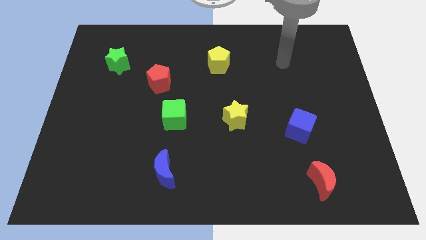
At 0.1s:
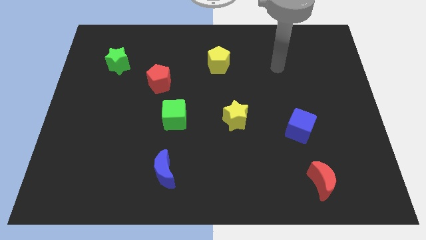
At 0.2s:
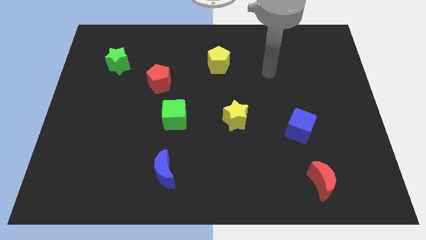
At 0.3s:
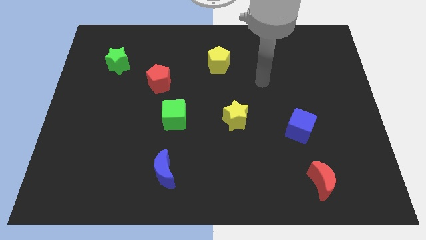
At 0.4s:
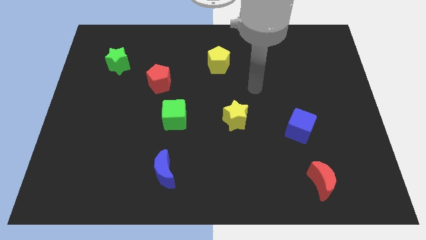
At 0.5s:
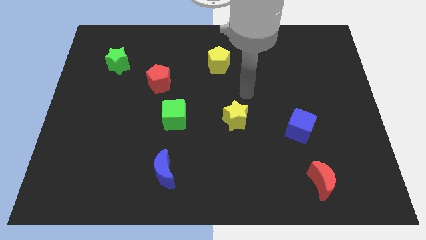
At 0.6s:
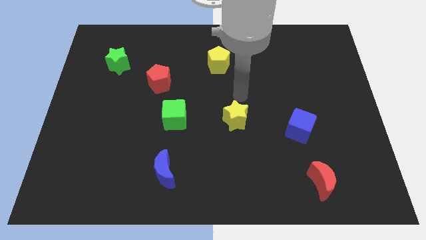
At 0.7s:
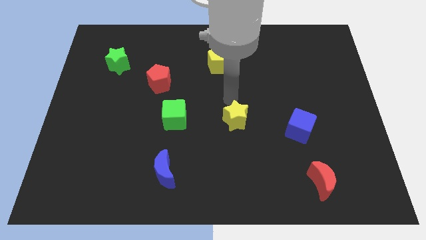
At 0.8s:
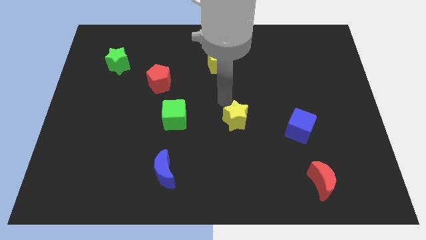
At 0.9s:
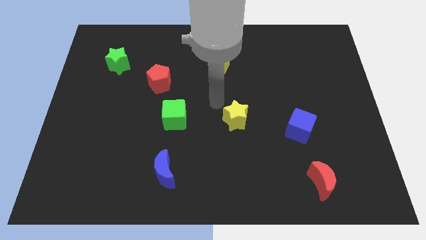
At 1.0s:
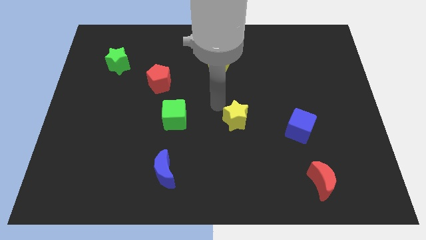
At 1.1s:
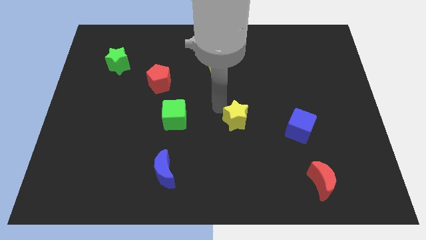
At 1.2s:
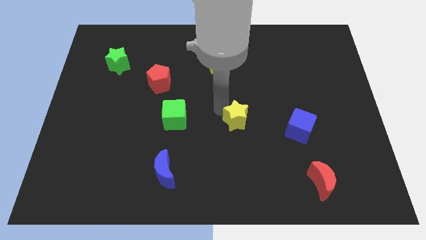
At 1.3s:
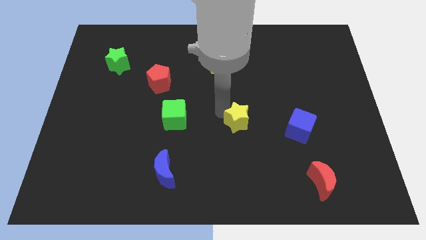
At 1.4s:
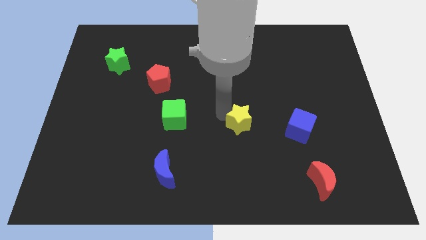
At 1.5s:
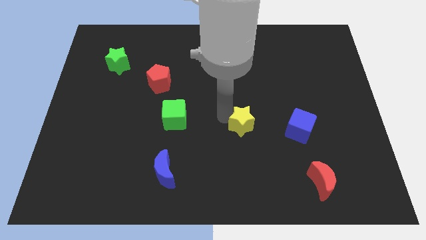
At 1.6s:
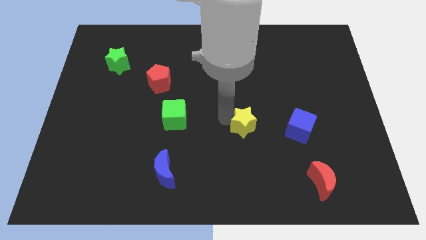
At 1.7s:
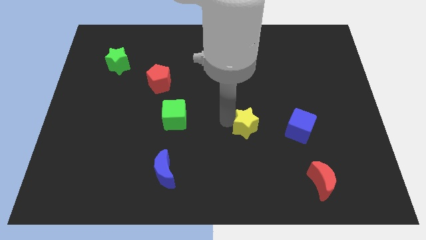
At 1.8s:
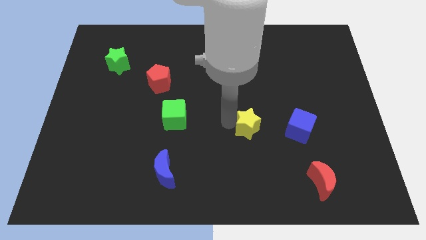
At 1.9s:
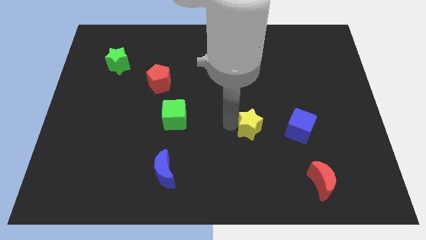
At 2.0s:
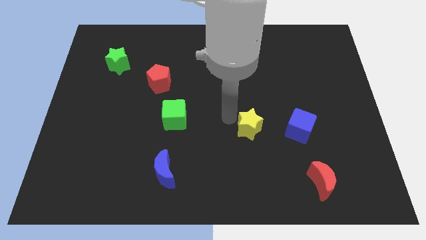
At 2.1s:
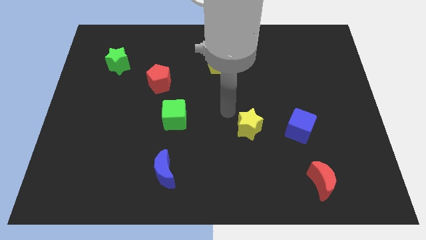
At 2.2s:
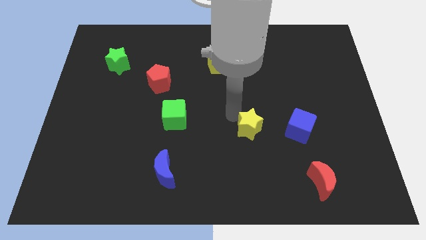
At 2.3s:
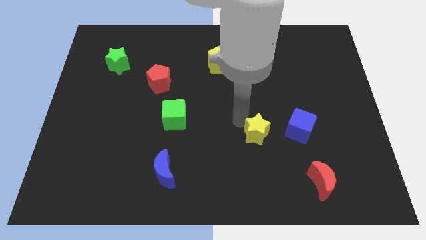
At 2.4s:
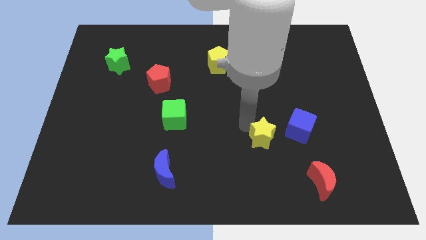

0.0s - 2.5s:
move the yellow star down and then to the right slightly

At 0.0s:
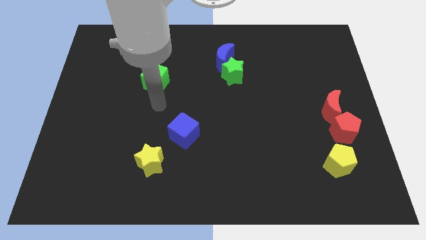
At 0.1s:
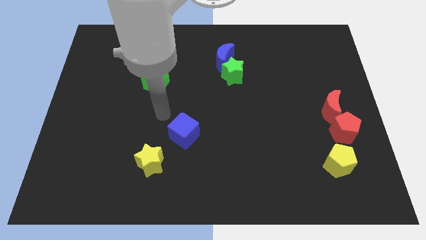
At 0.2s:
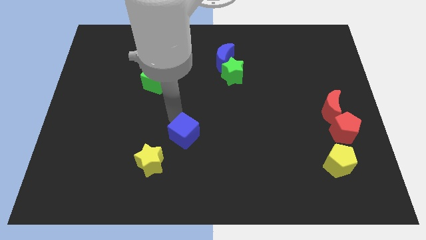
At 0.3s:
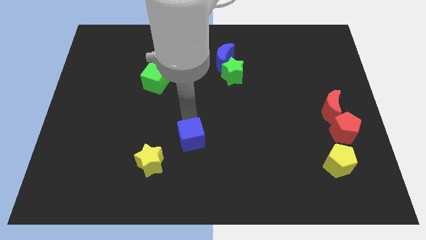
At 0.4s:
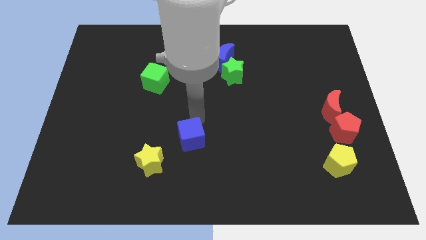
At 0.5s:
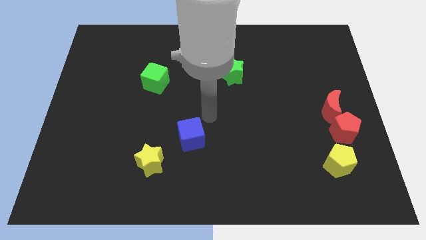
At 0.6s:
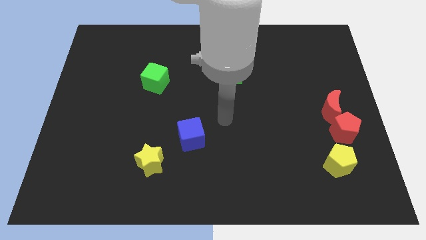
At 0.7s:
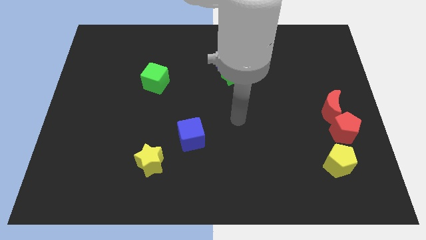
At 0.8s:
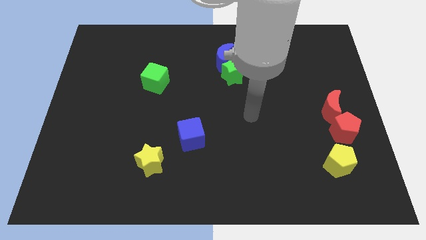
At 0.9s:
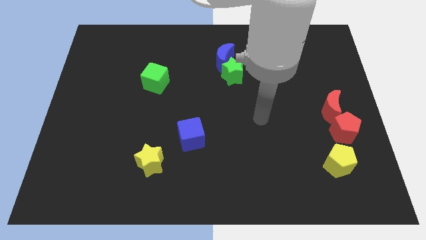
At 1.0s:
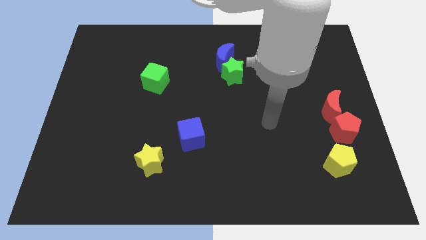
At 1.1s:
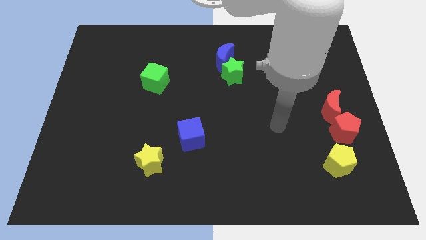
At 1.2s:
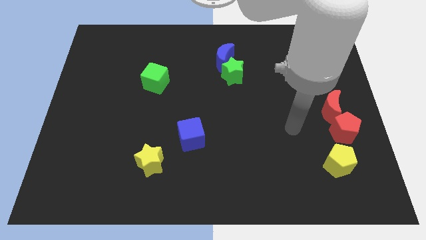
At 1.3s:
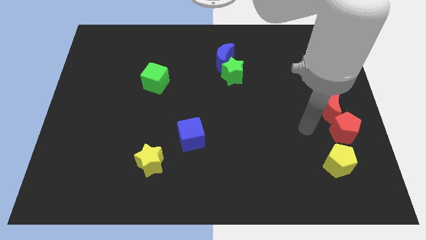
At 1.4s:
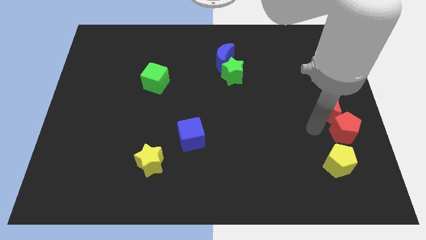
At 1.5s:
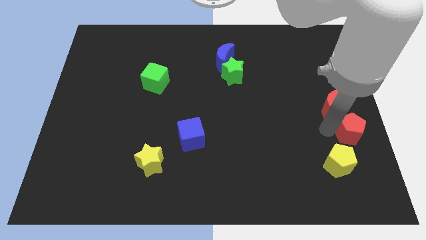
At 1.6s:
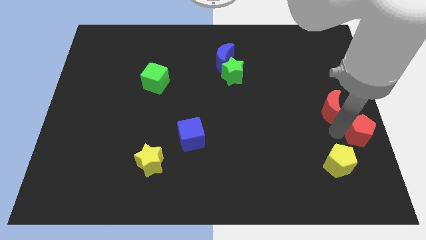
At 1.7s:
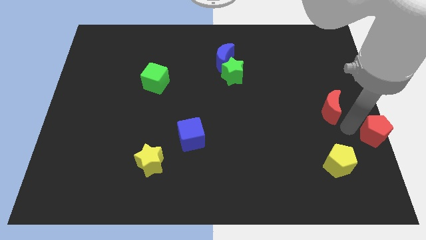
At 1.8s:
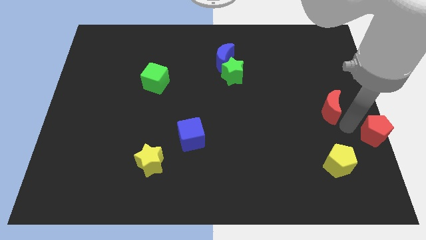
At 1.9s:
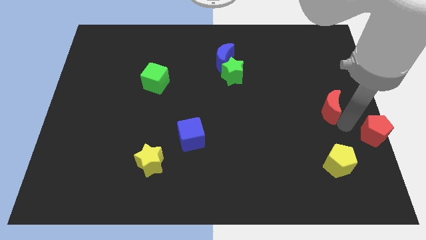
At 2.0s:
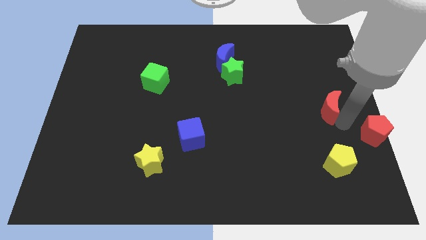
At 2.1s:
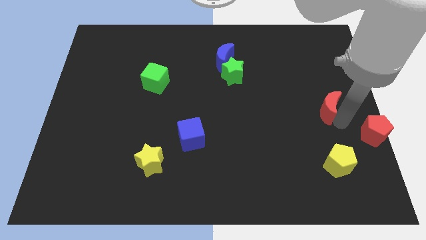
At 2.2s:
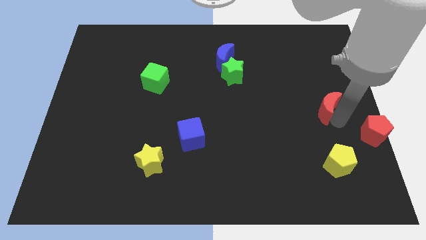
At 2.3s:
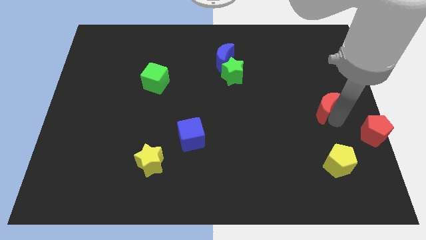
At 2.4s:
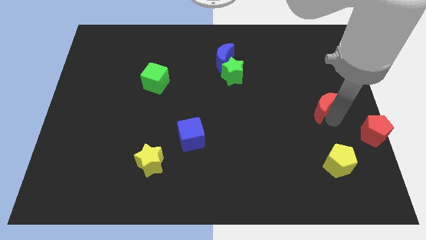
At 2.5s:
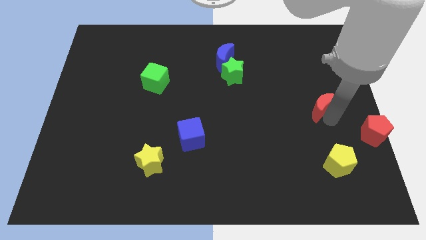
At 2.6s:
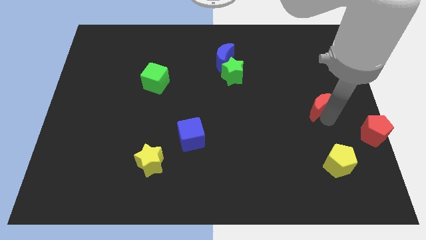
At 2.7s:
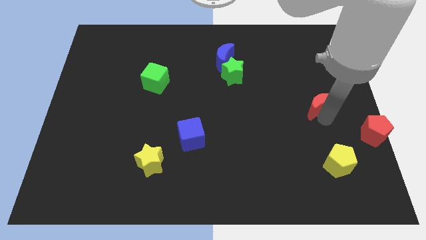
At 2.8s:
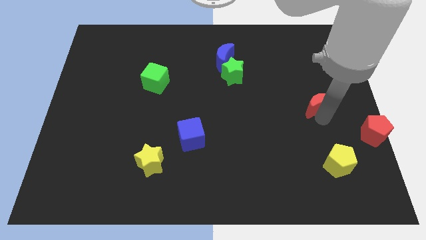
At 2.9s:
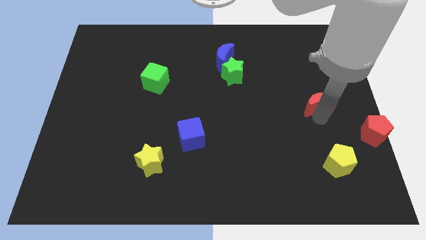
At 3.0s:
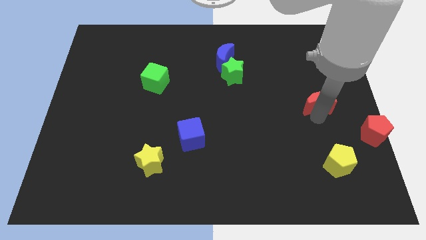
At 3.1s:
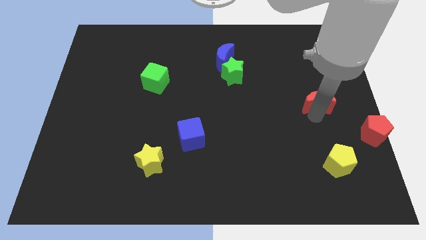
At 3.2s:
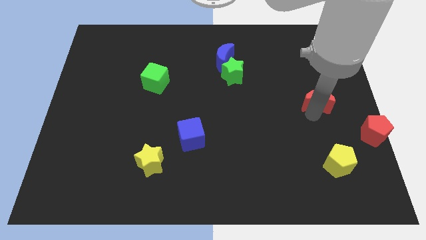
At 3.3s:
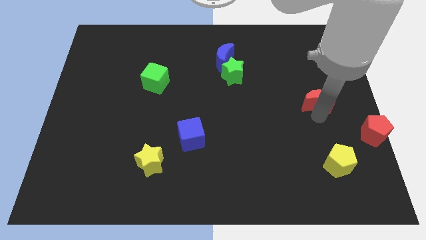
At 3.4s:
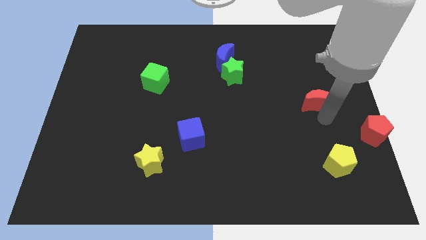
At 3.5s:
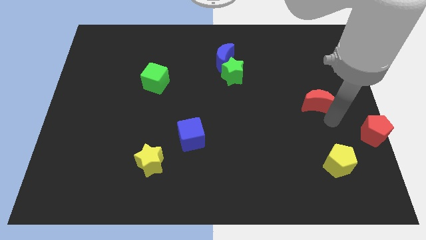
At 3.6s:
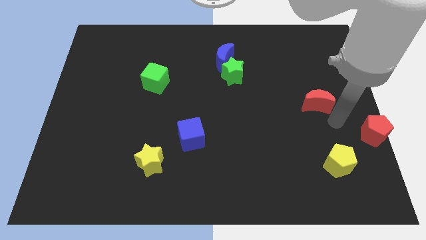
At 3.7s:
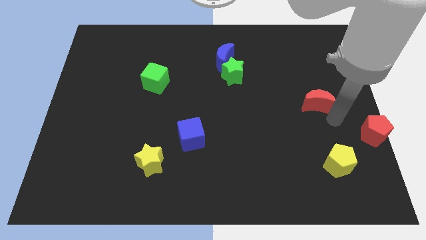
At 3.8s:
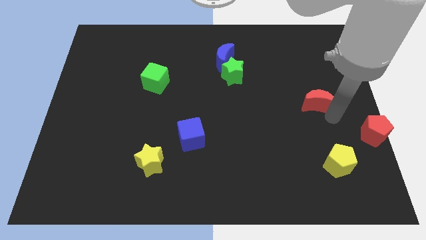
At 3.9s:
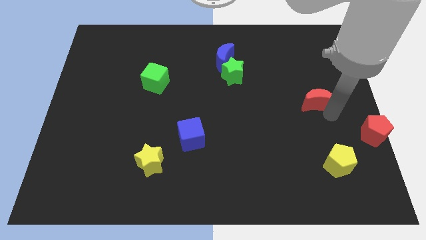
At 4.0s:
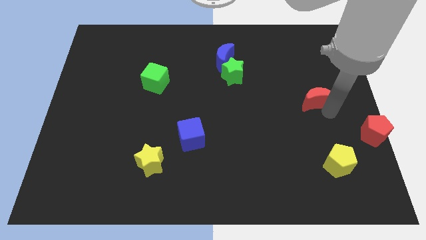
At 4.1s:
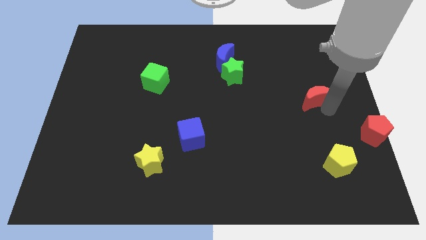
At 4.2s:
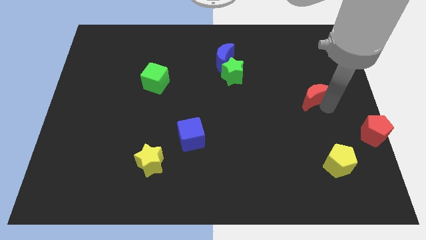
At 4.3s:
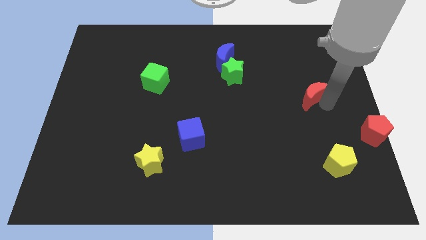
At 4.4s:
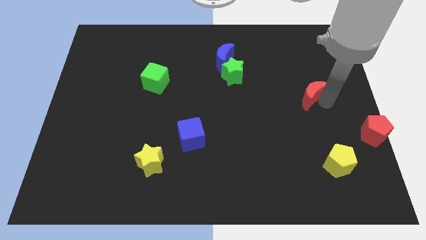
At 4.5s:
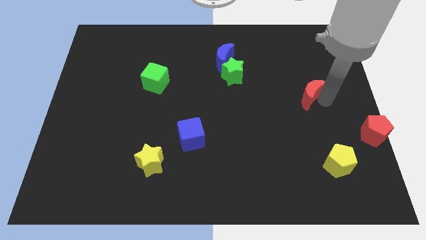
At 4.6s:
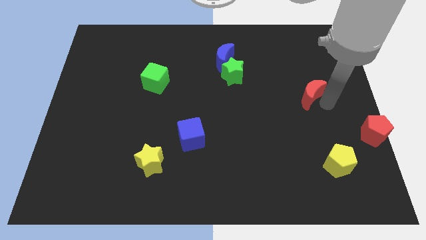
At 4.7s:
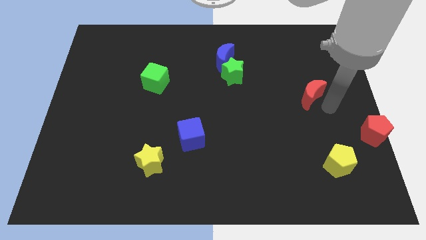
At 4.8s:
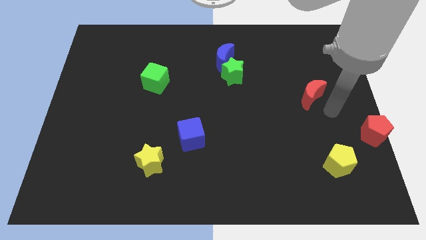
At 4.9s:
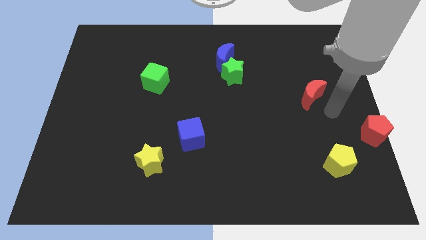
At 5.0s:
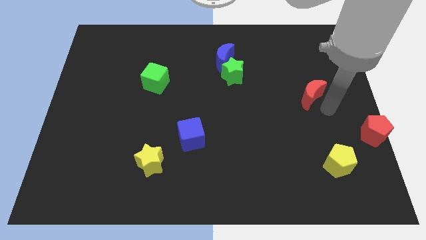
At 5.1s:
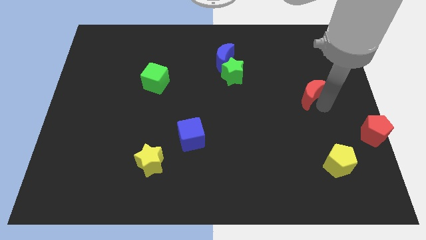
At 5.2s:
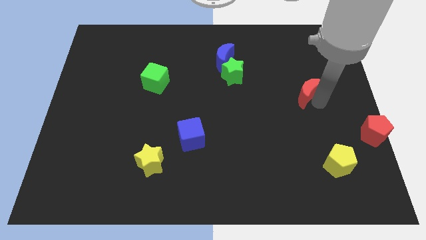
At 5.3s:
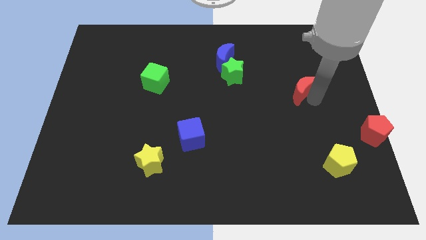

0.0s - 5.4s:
slightly move the red moon up and then to the left
